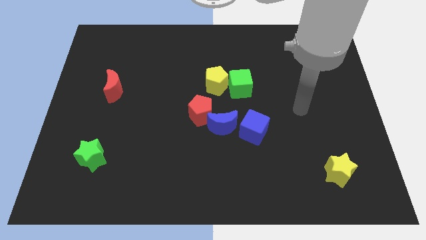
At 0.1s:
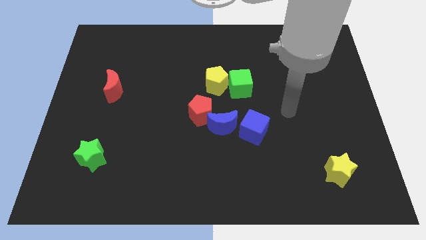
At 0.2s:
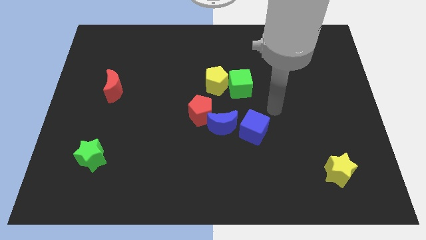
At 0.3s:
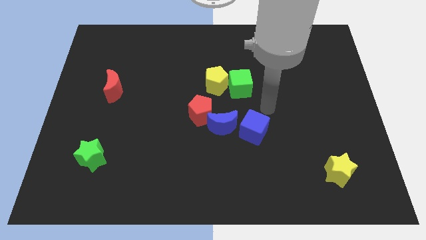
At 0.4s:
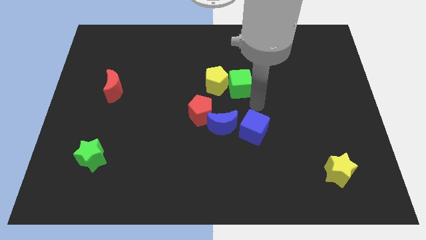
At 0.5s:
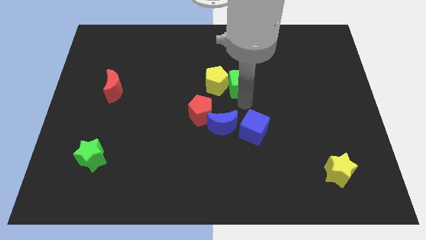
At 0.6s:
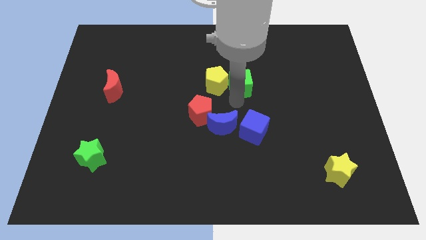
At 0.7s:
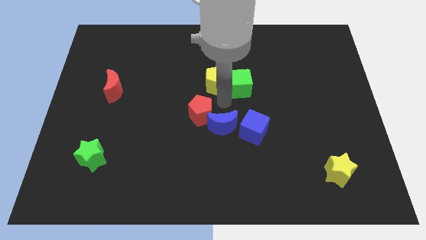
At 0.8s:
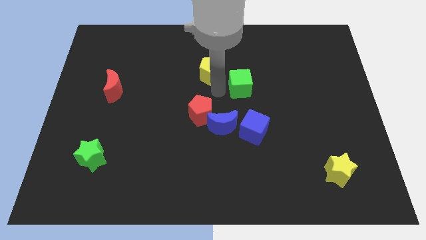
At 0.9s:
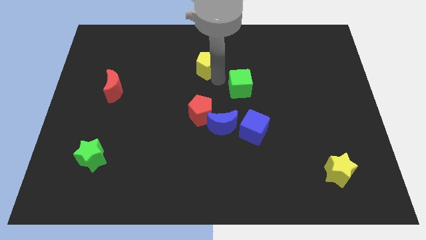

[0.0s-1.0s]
move the green cube away from the yellow pentagon

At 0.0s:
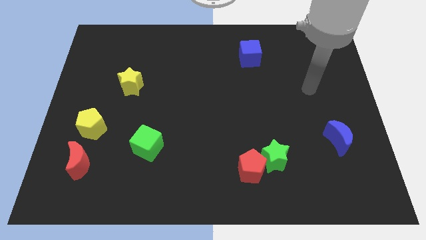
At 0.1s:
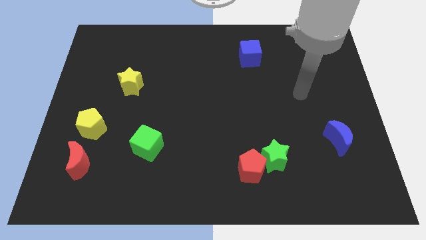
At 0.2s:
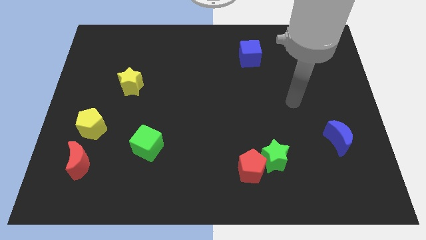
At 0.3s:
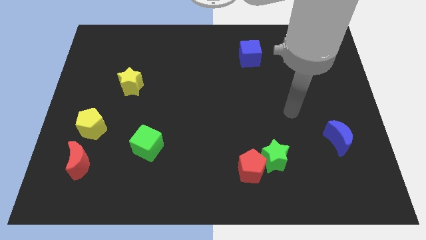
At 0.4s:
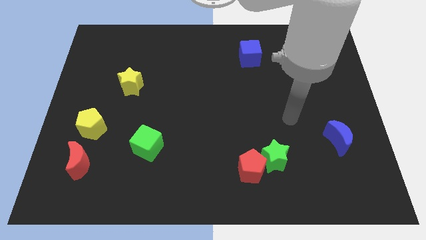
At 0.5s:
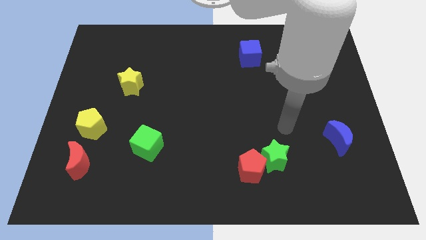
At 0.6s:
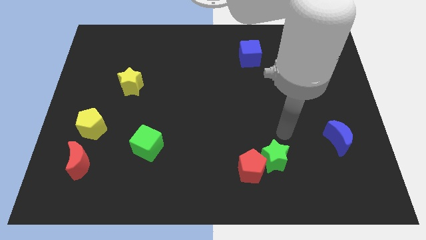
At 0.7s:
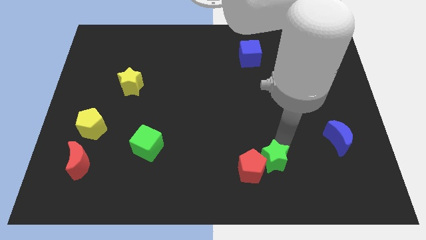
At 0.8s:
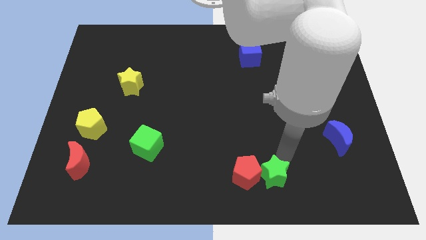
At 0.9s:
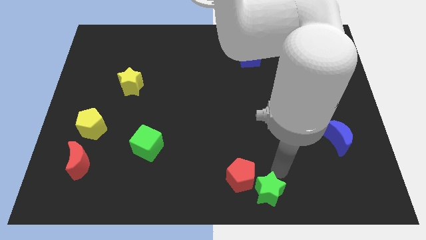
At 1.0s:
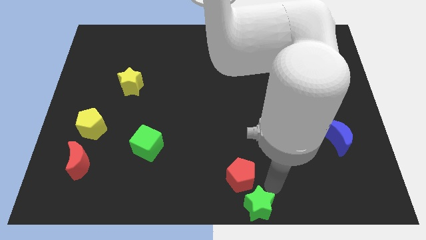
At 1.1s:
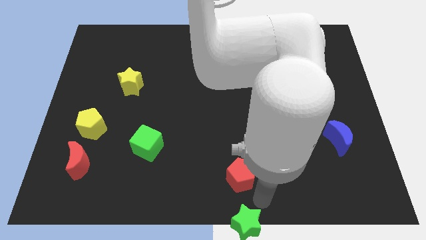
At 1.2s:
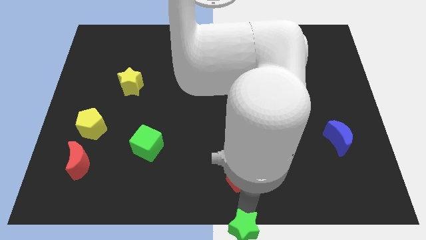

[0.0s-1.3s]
pull the red pentagon apart from the green star

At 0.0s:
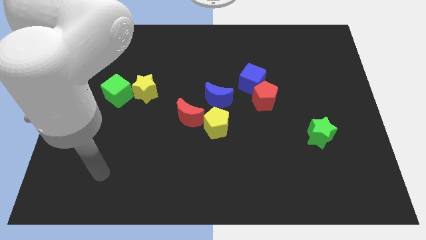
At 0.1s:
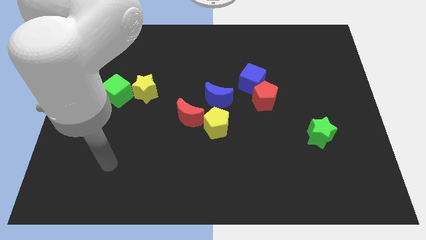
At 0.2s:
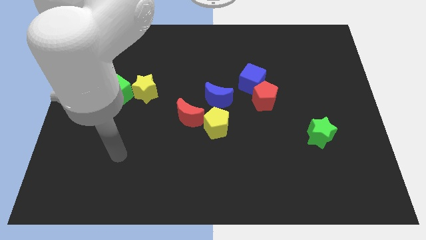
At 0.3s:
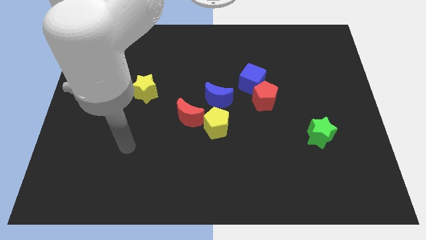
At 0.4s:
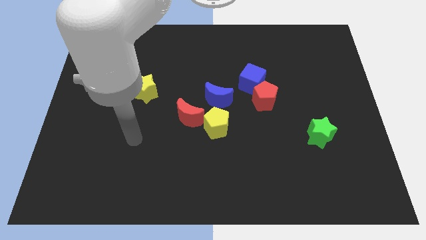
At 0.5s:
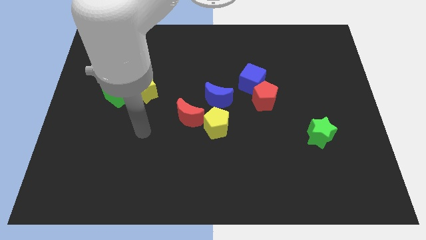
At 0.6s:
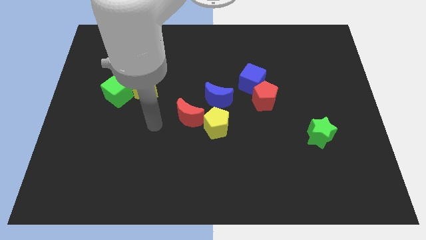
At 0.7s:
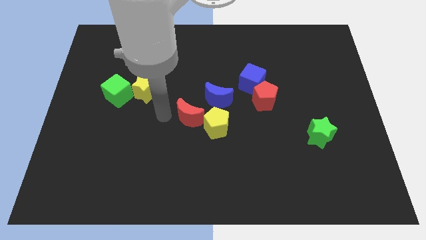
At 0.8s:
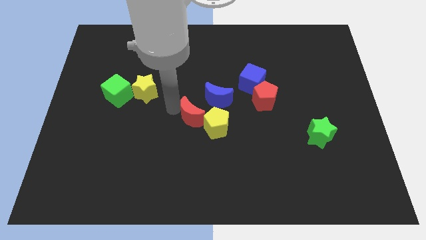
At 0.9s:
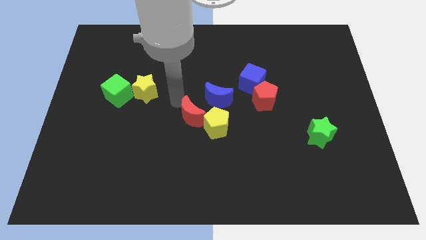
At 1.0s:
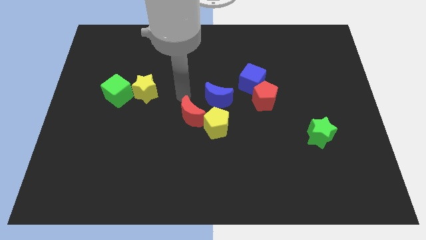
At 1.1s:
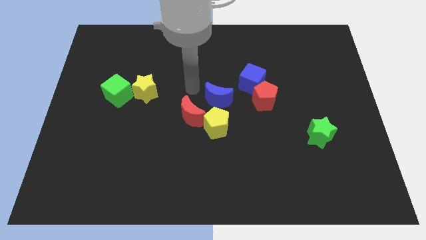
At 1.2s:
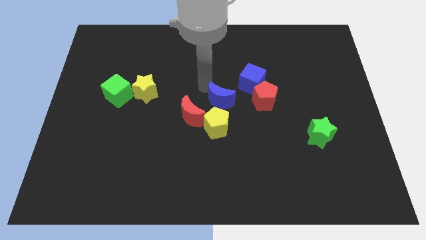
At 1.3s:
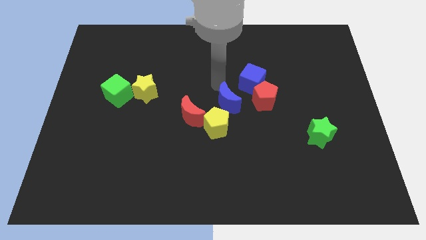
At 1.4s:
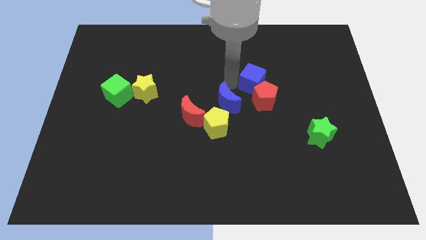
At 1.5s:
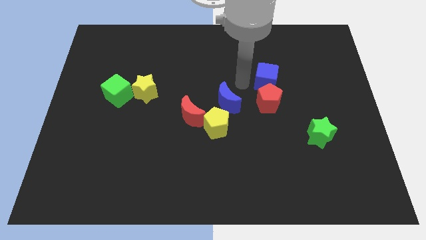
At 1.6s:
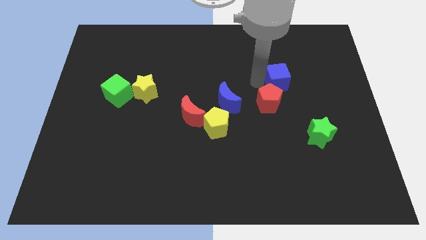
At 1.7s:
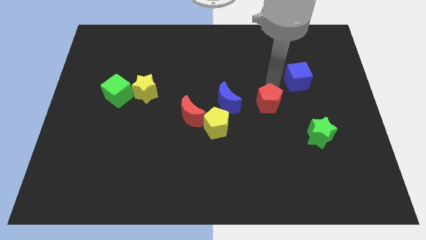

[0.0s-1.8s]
separate the red pentagon from the blue cube

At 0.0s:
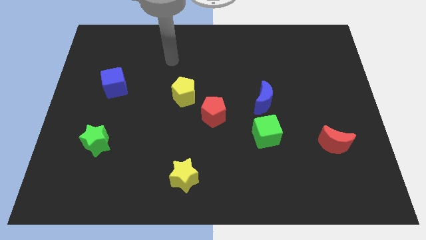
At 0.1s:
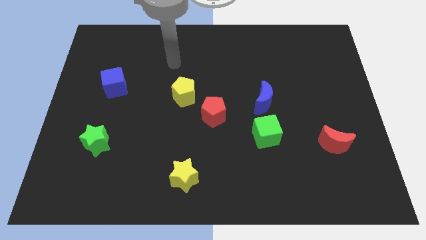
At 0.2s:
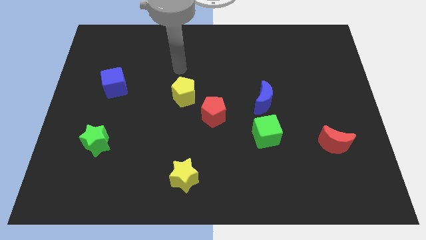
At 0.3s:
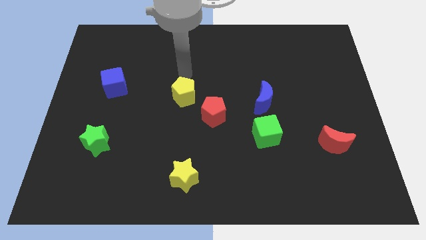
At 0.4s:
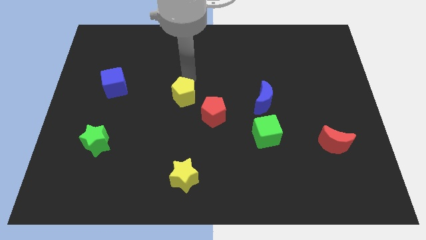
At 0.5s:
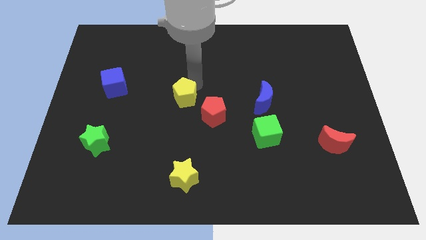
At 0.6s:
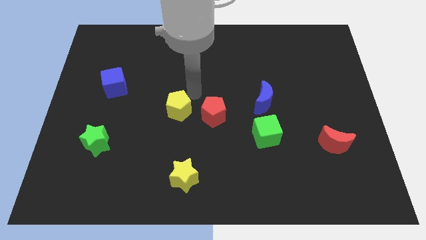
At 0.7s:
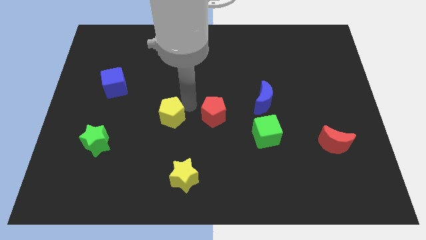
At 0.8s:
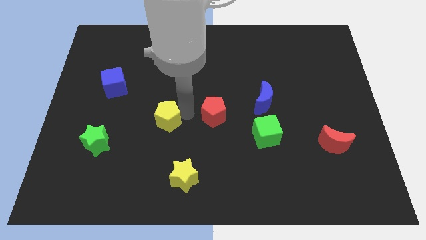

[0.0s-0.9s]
move the red pentagon away from the yellow pentagon

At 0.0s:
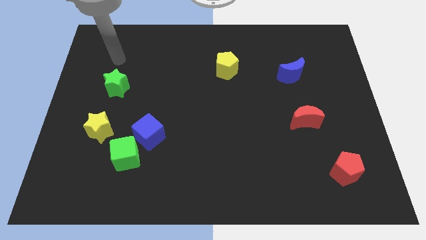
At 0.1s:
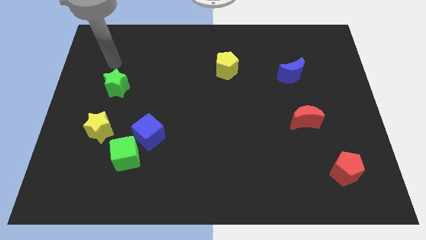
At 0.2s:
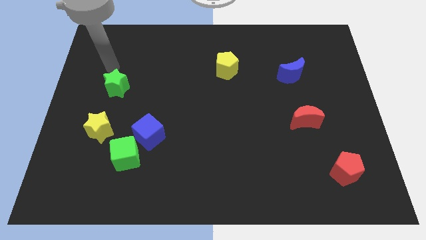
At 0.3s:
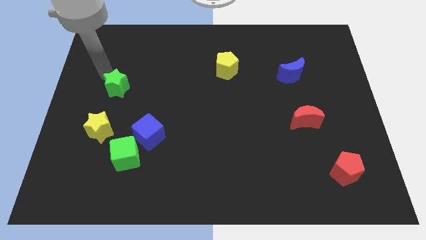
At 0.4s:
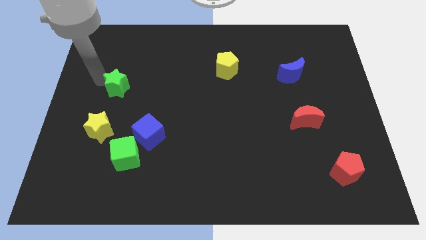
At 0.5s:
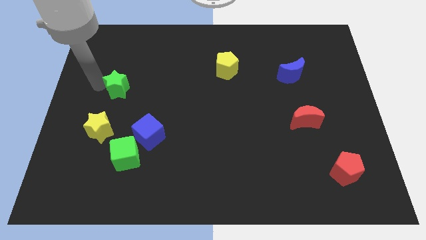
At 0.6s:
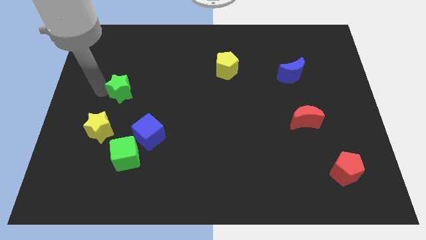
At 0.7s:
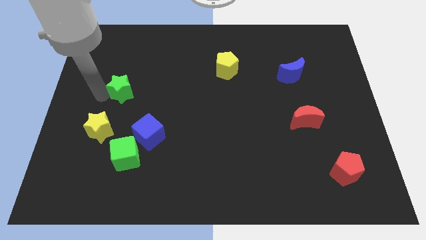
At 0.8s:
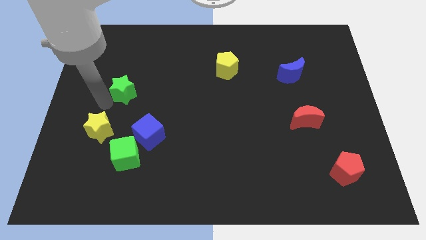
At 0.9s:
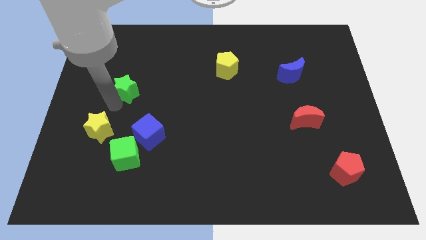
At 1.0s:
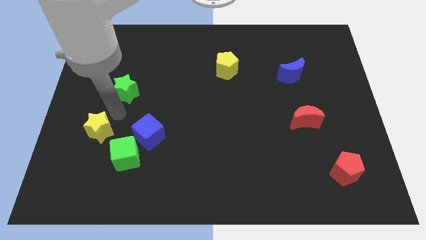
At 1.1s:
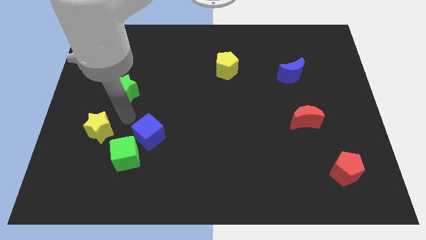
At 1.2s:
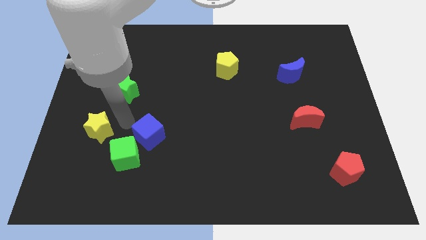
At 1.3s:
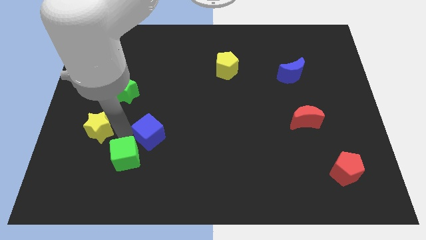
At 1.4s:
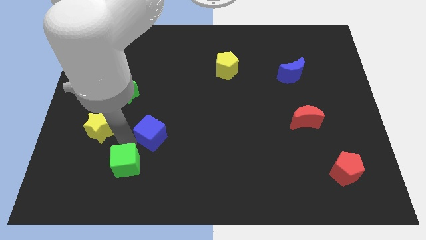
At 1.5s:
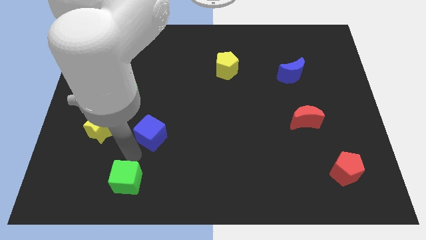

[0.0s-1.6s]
pull the blue cube apart from the green cube

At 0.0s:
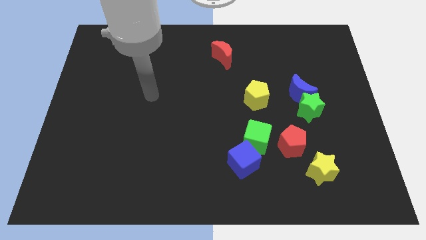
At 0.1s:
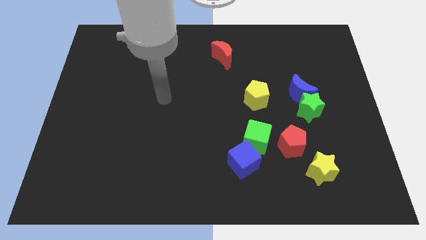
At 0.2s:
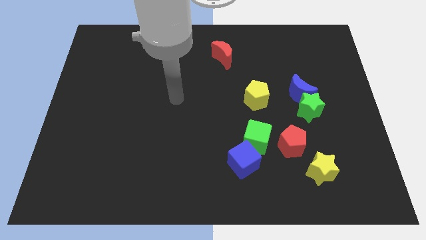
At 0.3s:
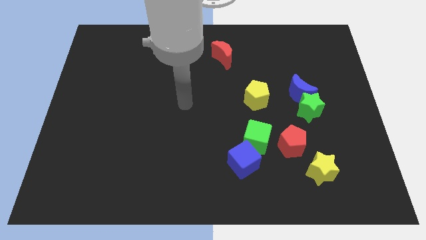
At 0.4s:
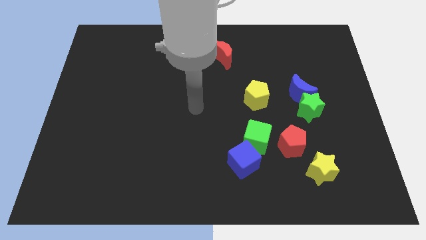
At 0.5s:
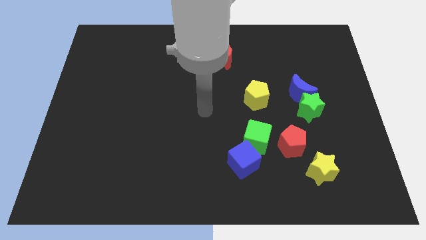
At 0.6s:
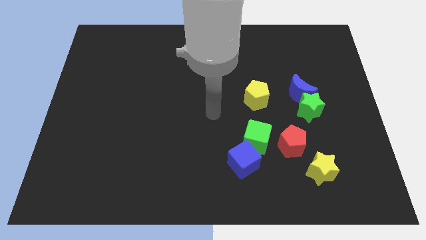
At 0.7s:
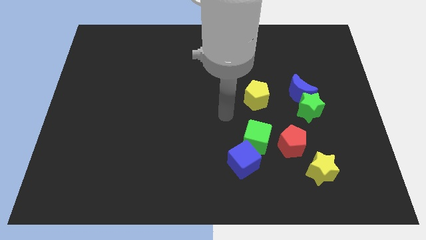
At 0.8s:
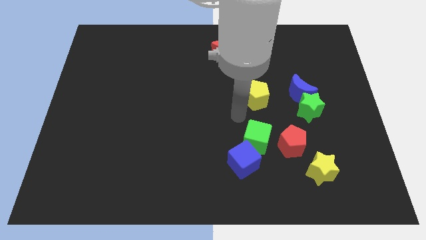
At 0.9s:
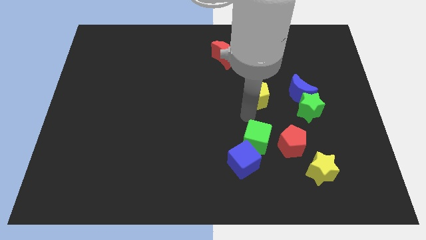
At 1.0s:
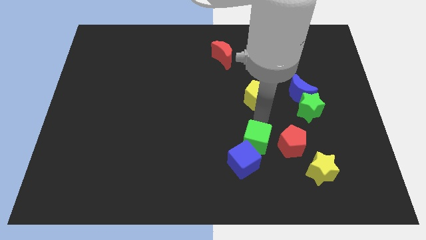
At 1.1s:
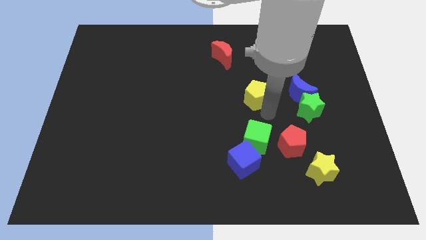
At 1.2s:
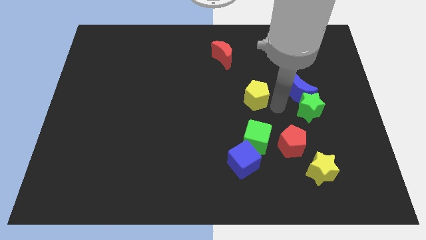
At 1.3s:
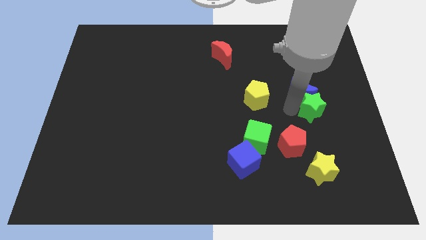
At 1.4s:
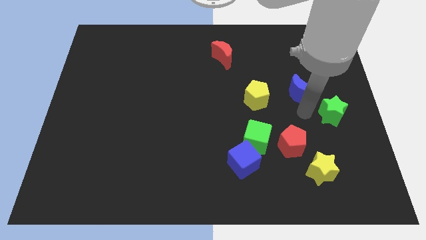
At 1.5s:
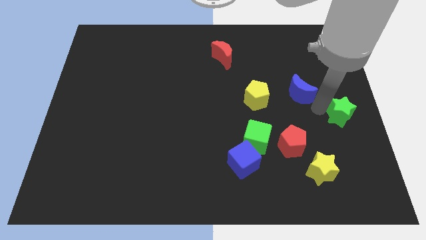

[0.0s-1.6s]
pull the blue moon apart from the green star

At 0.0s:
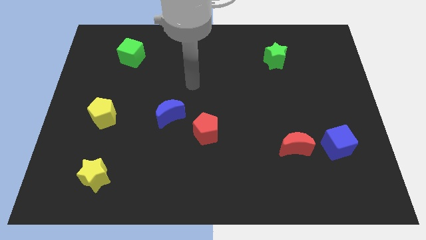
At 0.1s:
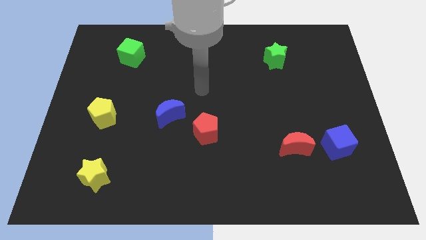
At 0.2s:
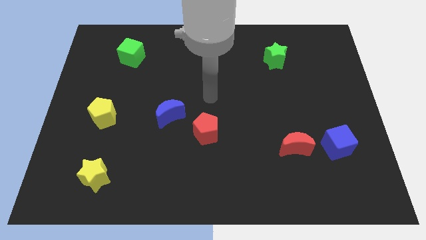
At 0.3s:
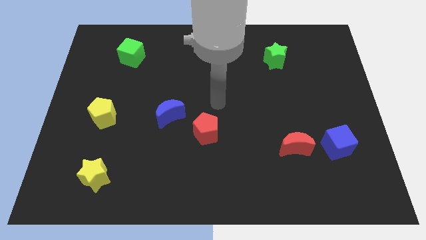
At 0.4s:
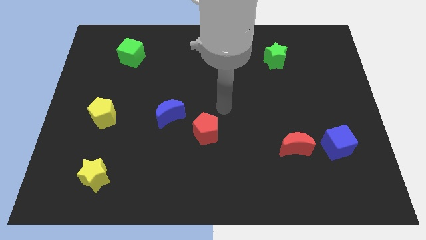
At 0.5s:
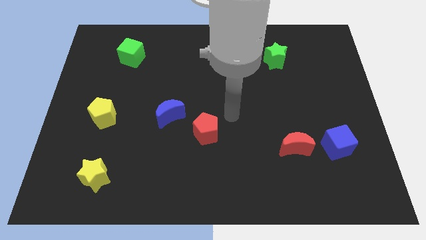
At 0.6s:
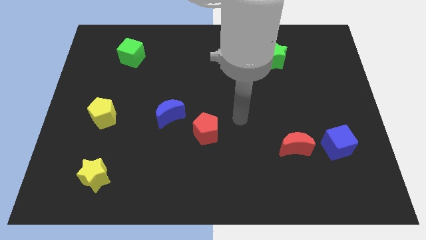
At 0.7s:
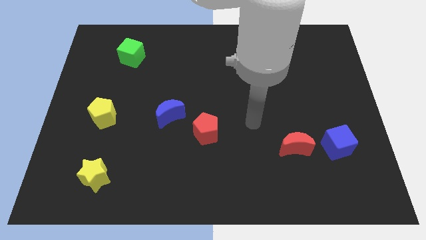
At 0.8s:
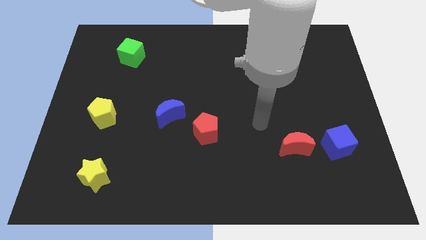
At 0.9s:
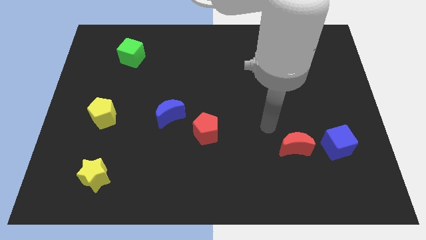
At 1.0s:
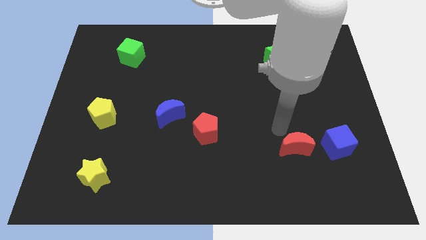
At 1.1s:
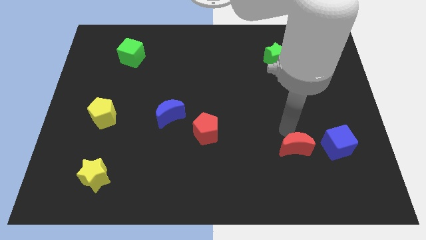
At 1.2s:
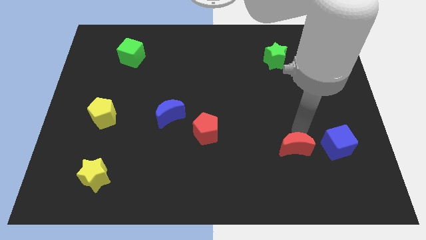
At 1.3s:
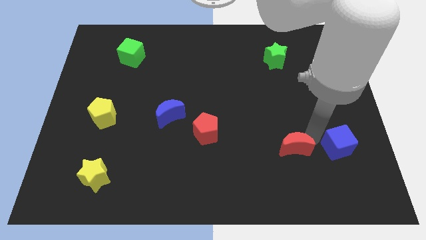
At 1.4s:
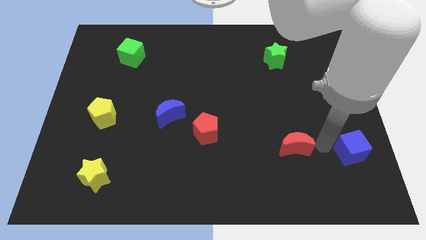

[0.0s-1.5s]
move the red moon away from the blue cube
